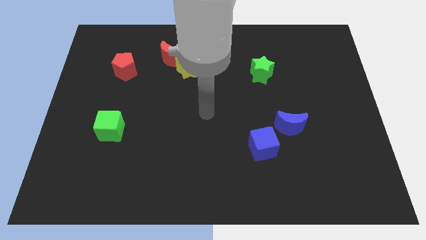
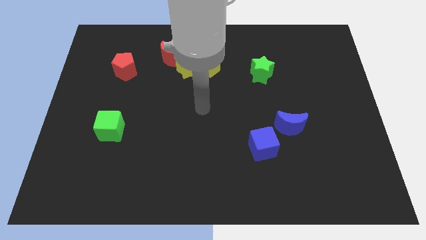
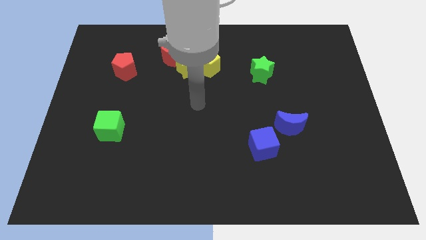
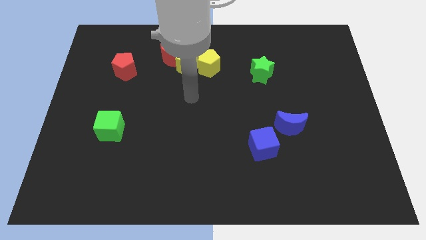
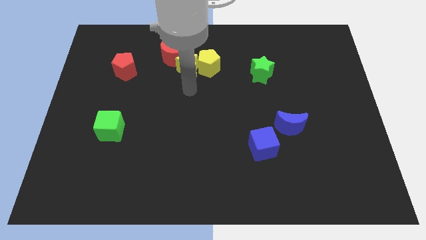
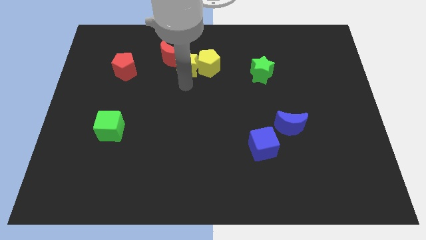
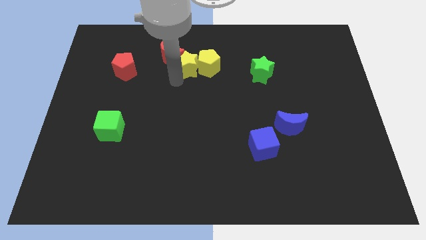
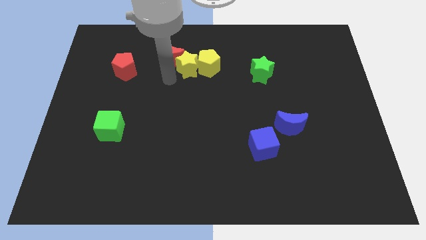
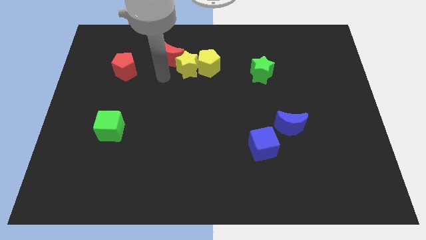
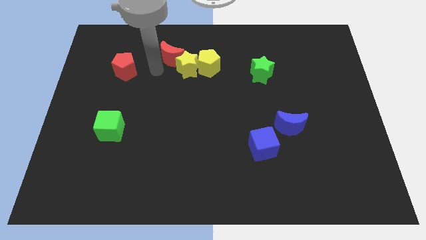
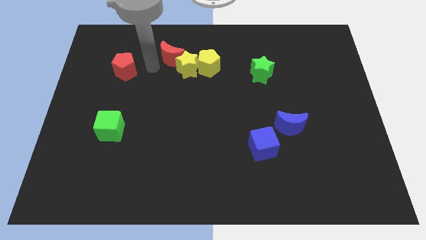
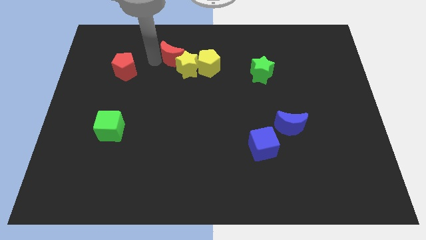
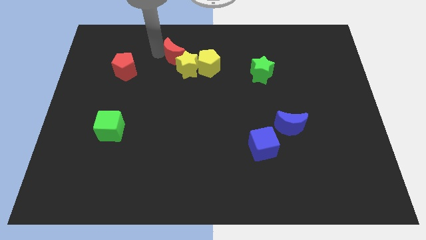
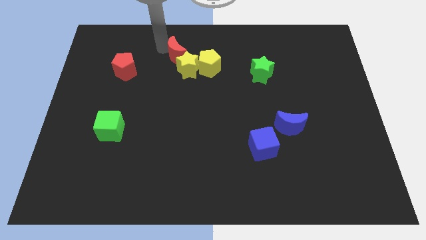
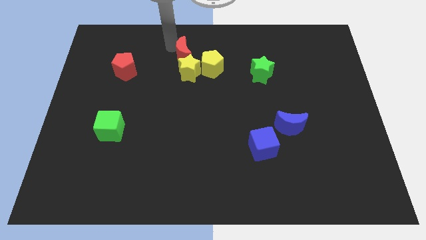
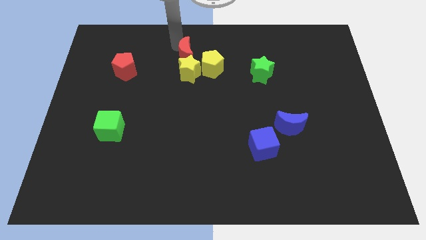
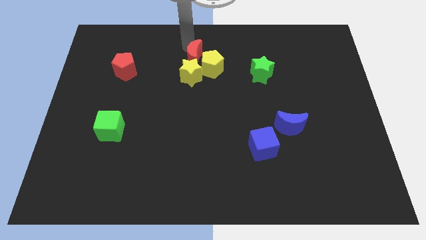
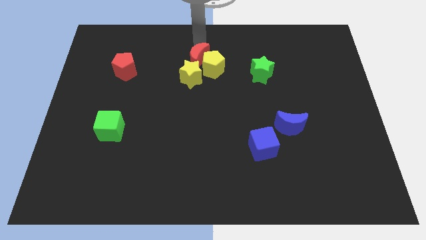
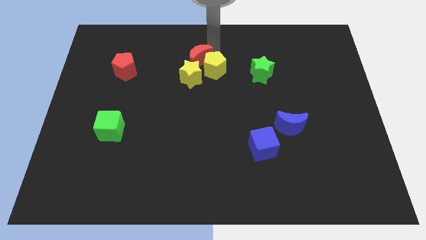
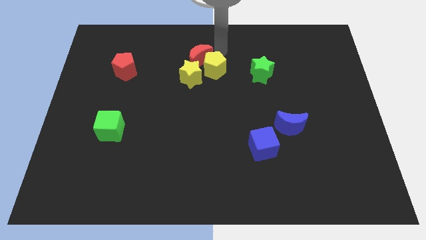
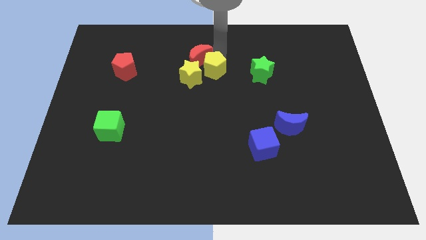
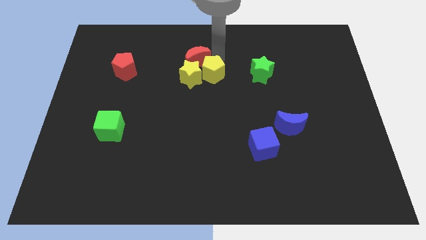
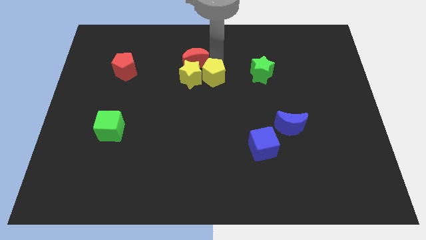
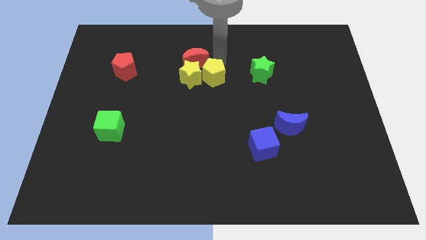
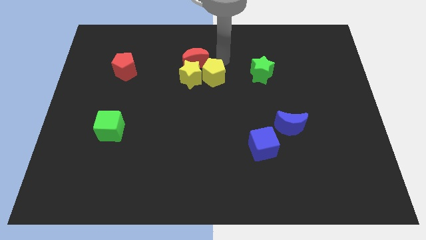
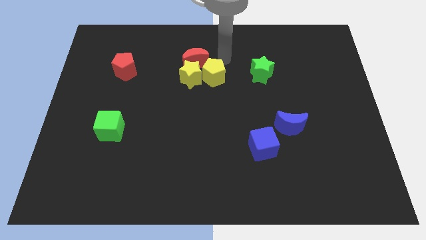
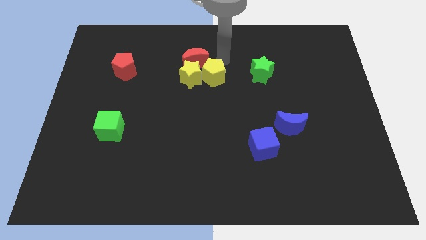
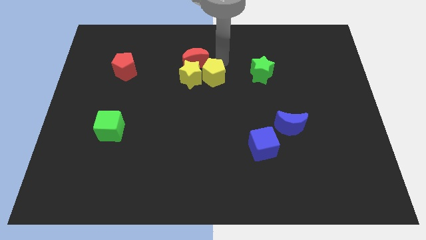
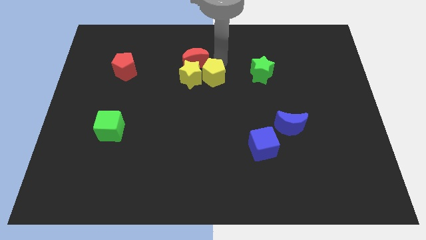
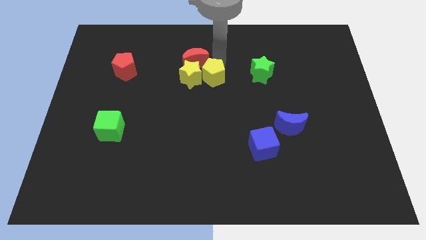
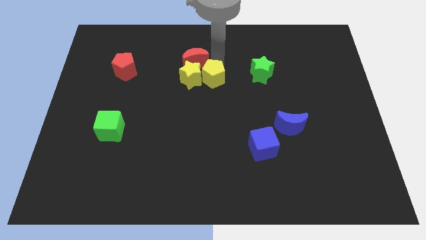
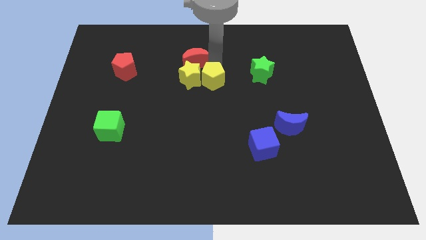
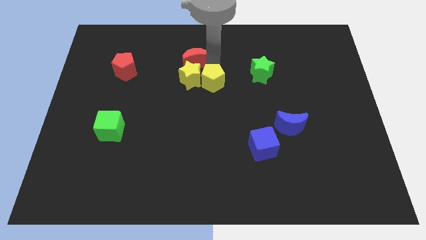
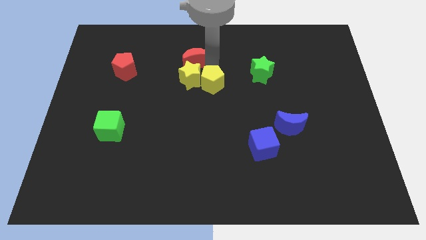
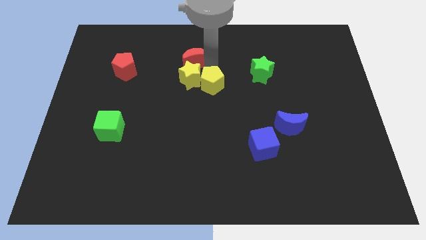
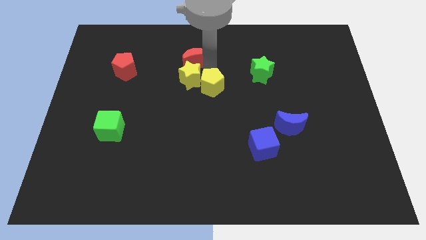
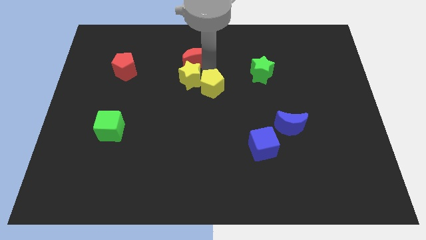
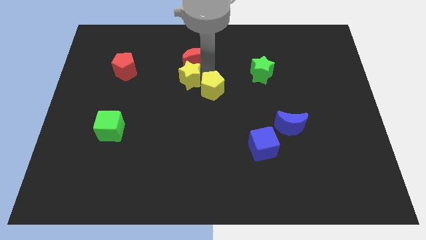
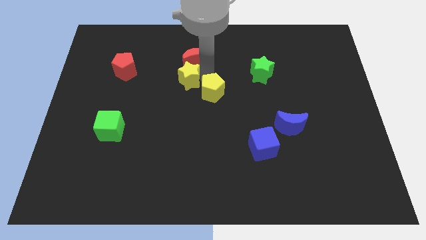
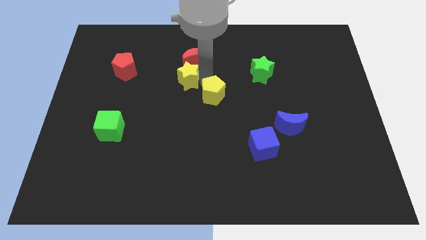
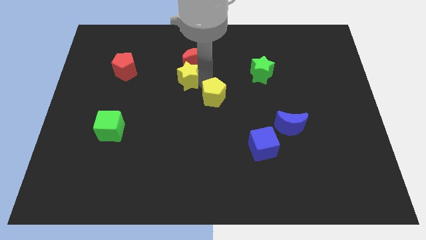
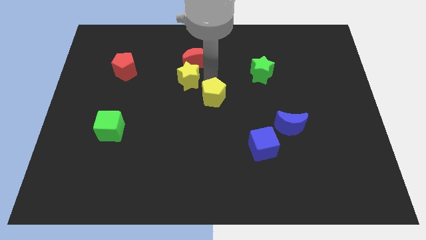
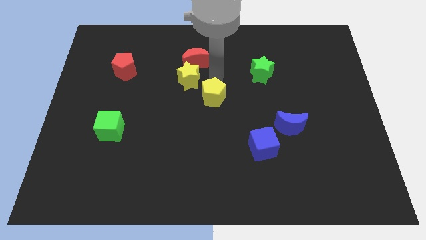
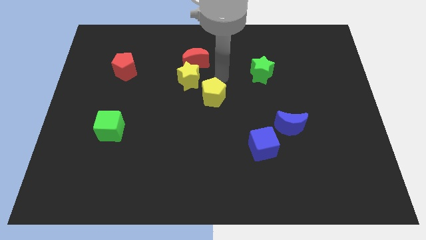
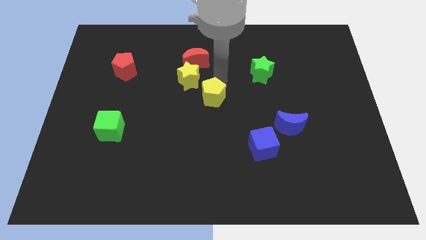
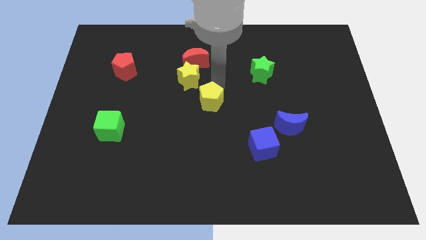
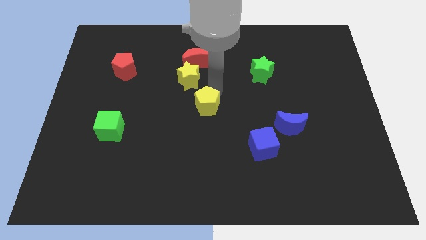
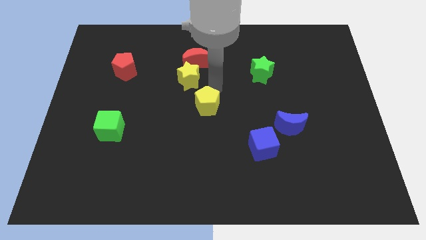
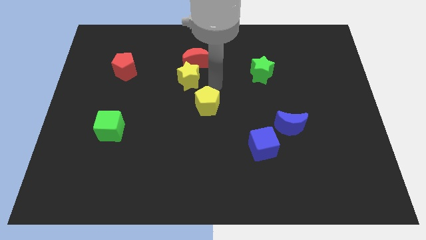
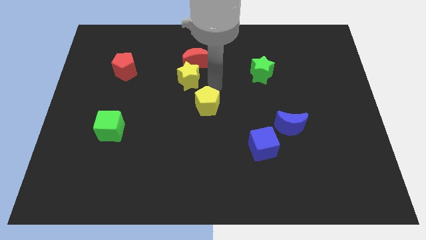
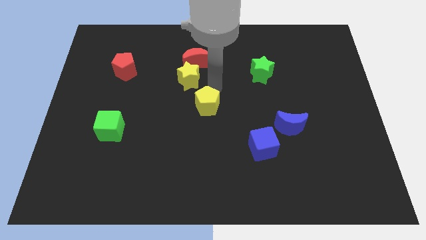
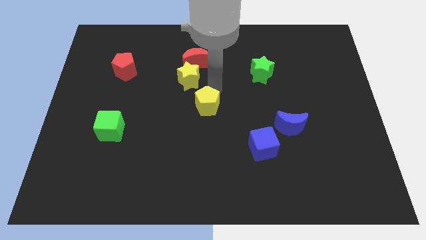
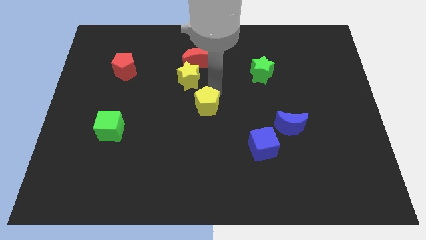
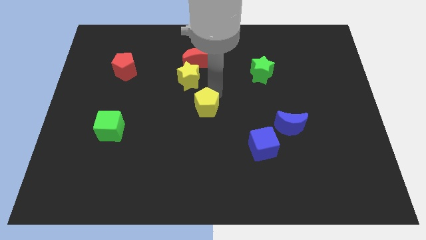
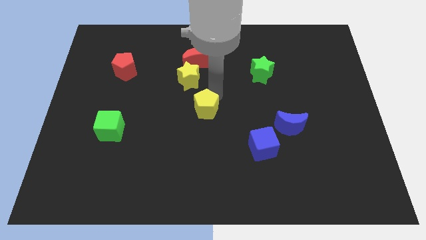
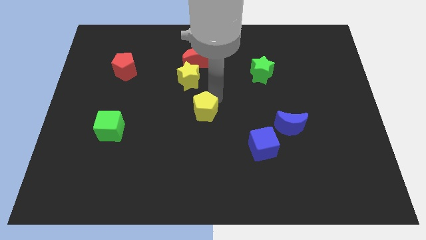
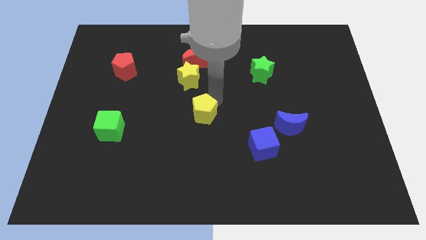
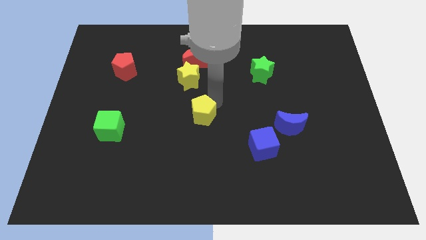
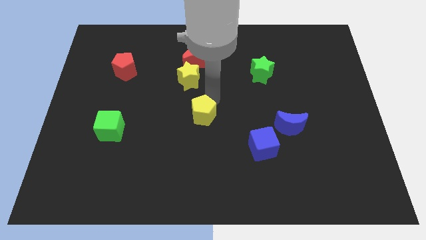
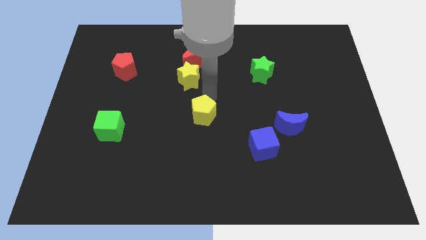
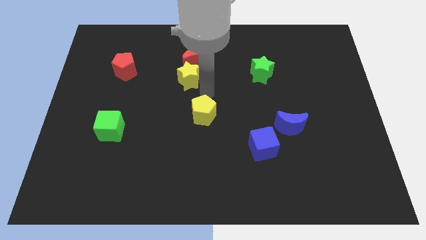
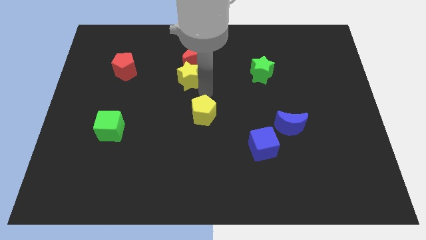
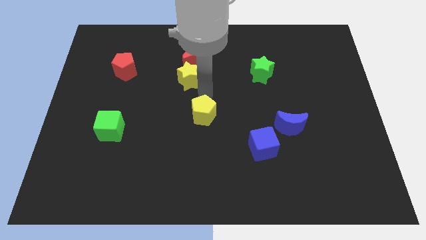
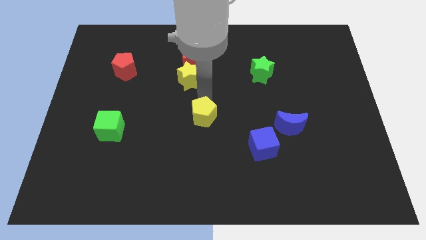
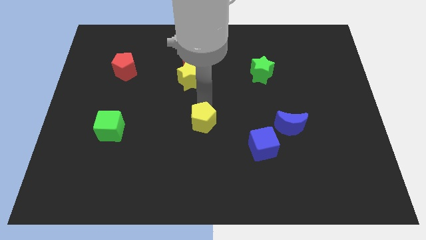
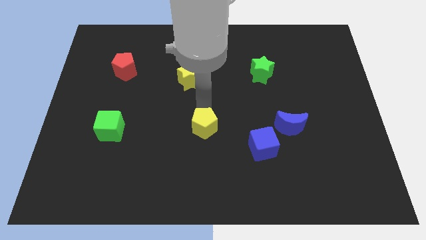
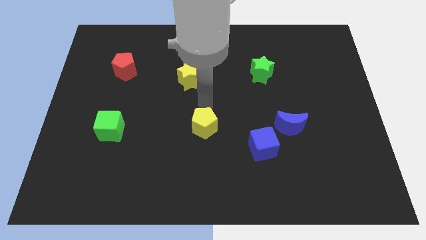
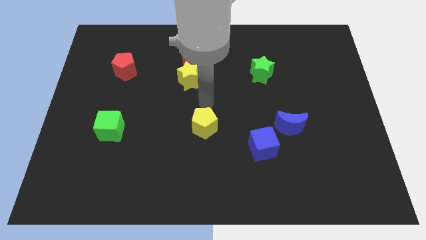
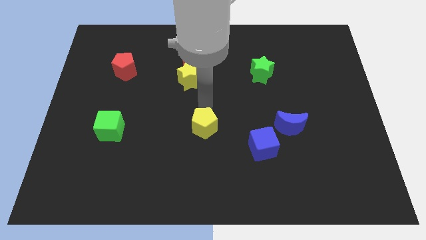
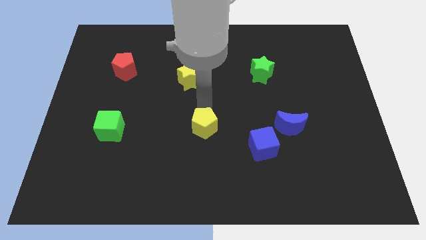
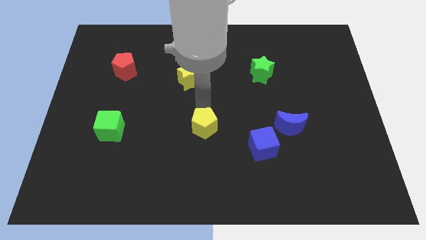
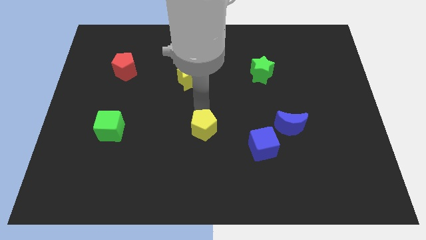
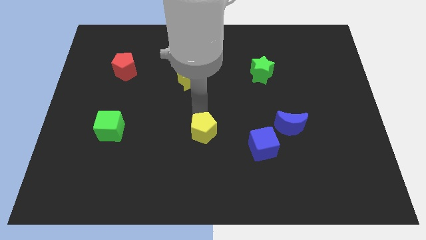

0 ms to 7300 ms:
push the yellow pentagon downwards

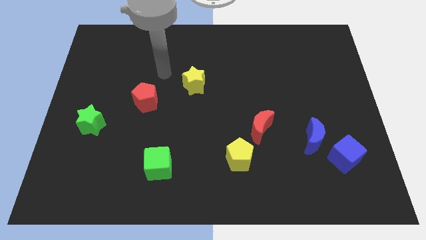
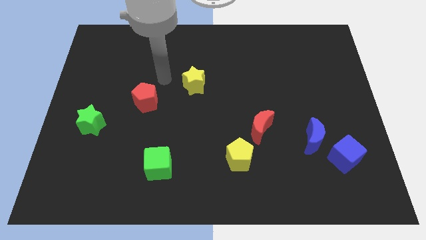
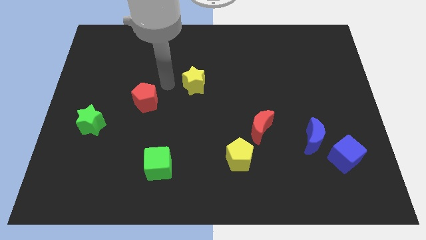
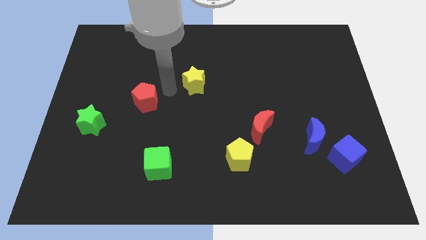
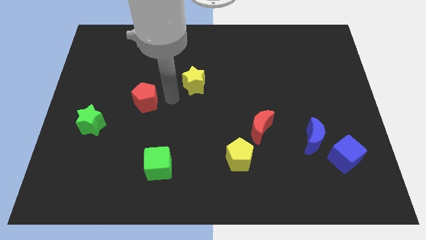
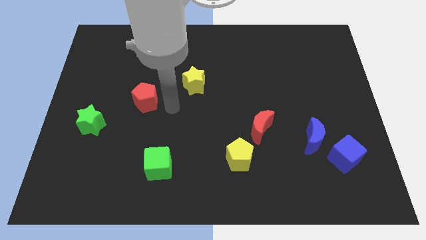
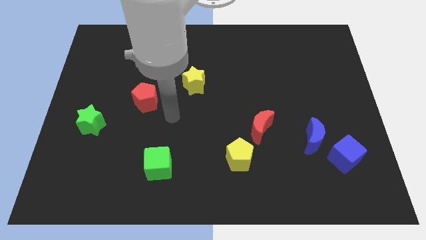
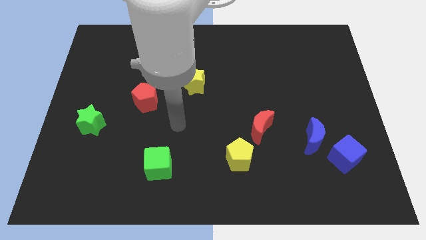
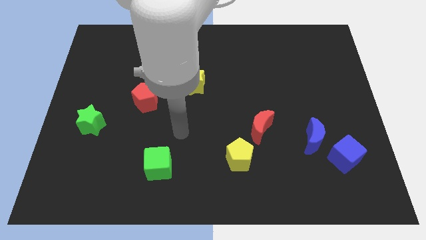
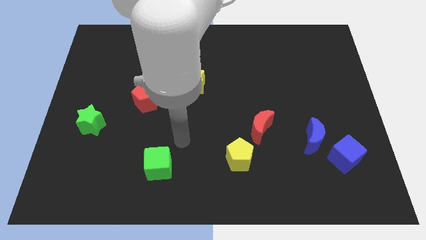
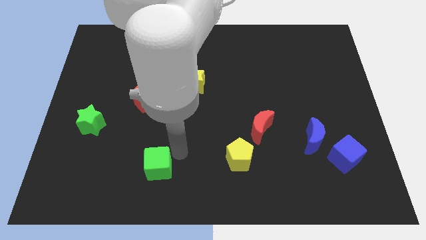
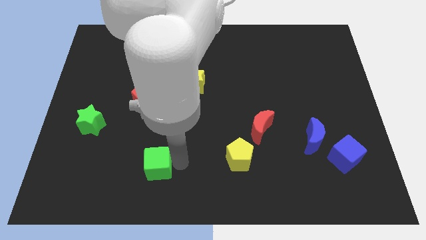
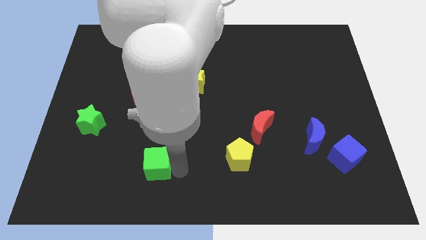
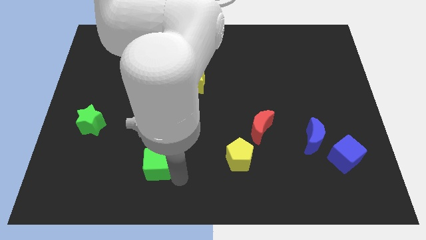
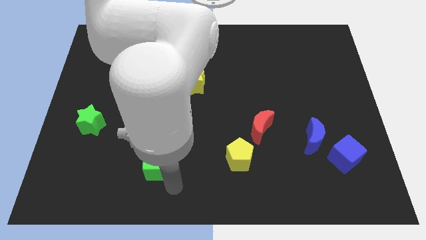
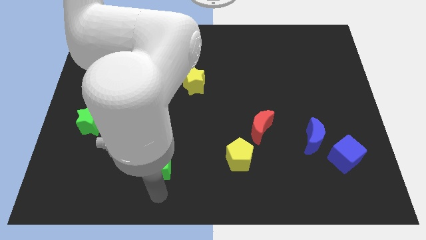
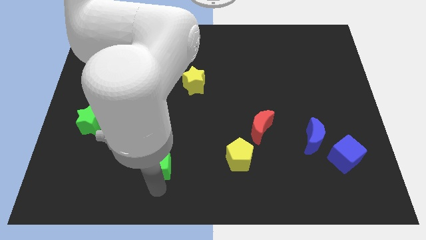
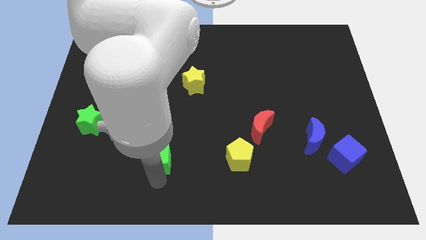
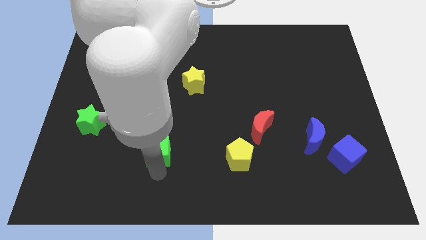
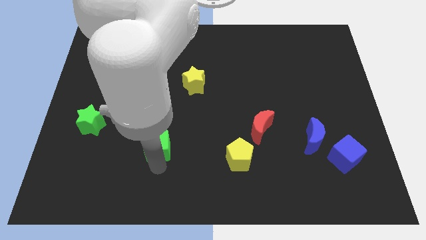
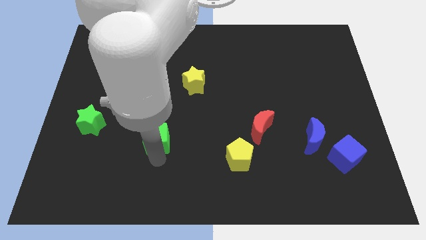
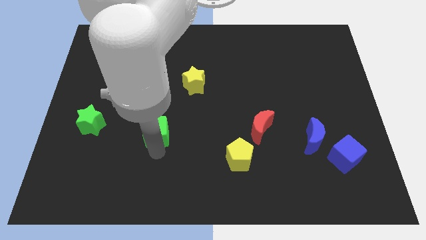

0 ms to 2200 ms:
slightly push the green cube up
